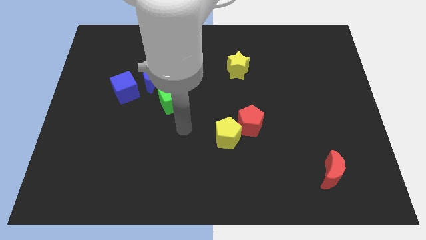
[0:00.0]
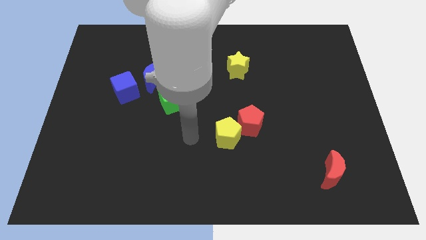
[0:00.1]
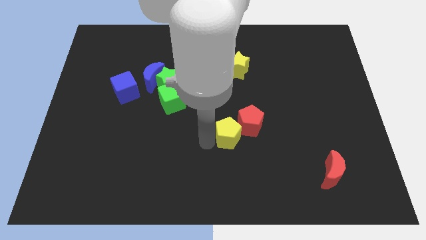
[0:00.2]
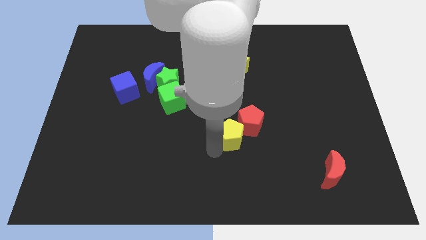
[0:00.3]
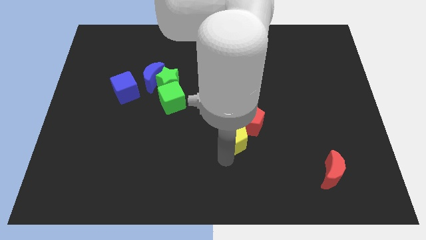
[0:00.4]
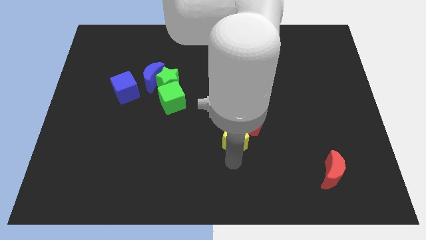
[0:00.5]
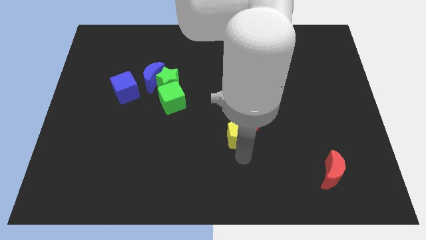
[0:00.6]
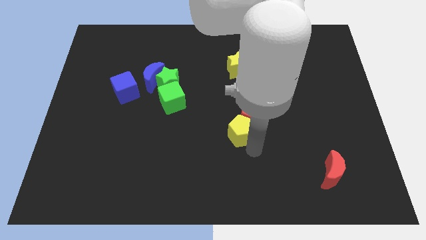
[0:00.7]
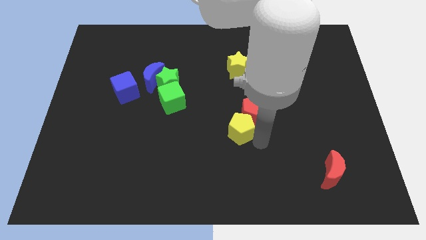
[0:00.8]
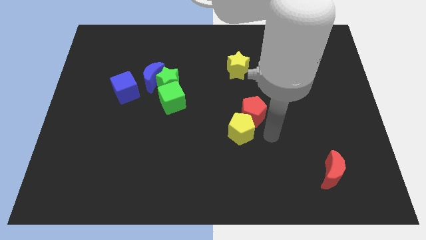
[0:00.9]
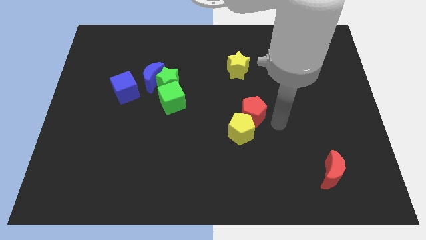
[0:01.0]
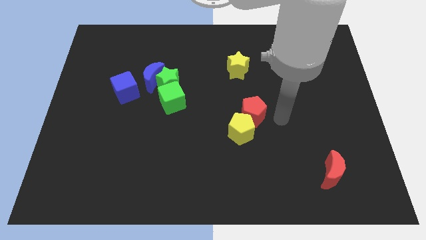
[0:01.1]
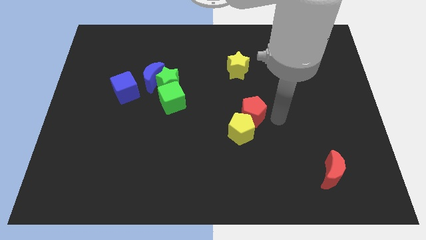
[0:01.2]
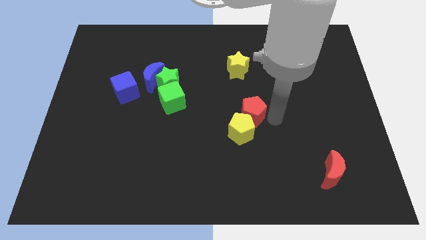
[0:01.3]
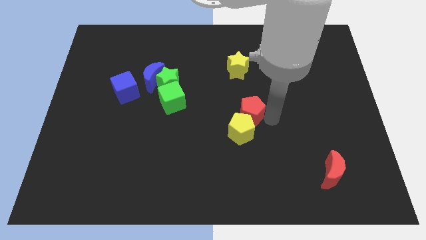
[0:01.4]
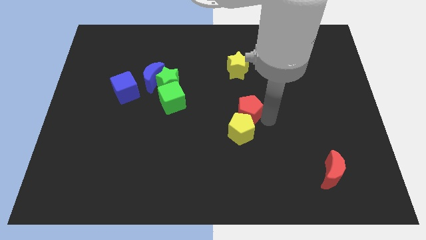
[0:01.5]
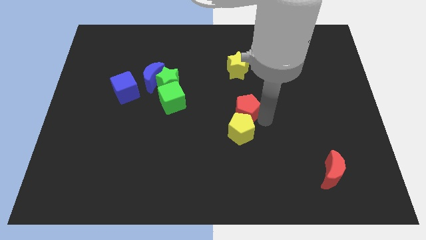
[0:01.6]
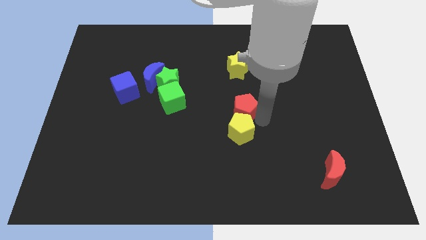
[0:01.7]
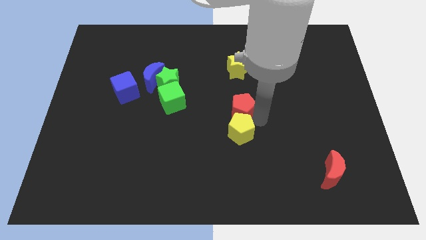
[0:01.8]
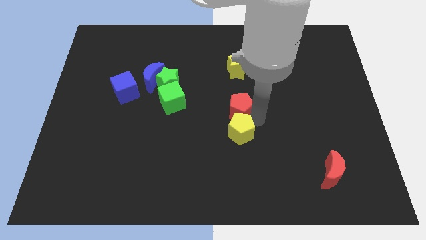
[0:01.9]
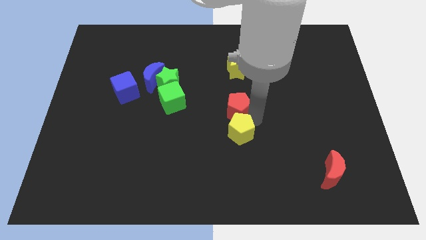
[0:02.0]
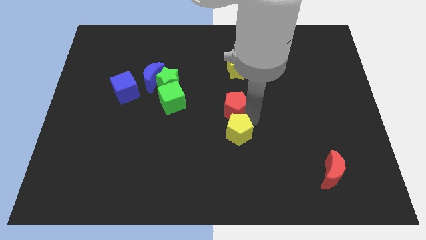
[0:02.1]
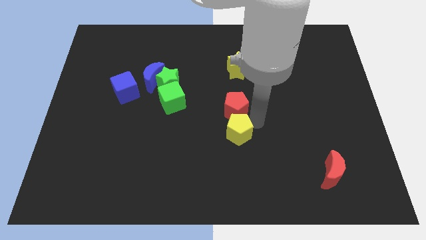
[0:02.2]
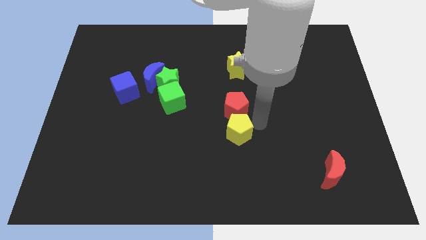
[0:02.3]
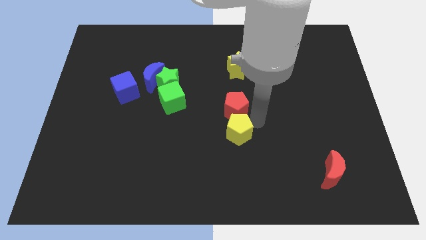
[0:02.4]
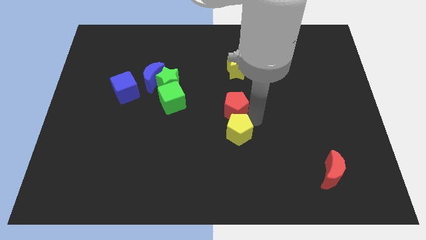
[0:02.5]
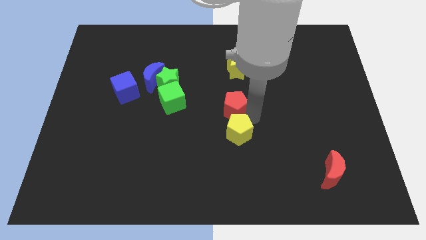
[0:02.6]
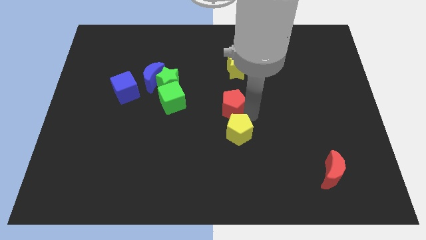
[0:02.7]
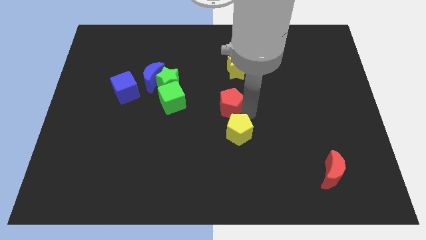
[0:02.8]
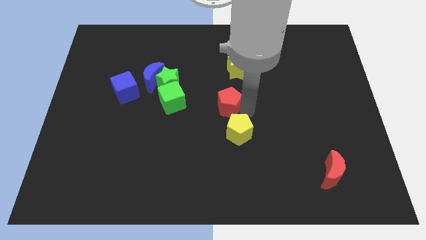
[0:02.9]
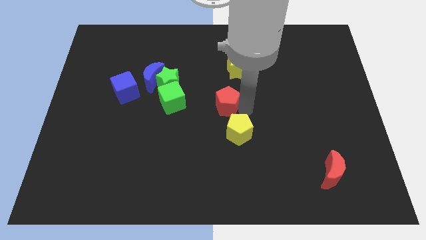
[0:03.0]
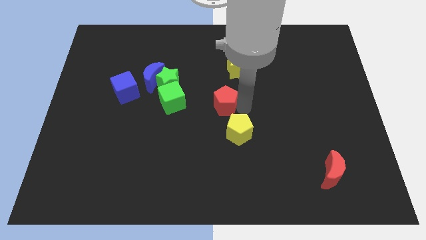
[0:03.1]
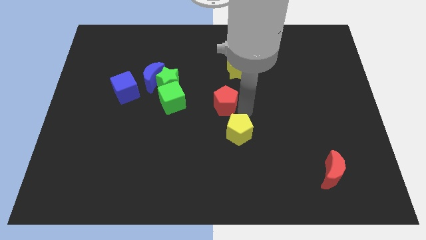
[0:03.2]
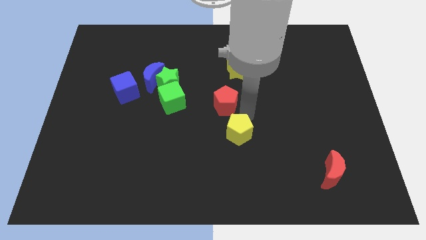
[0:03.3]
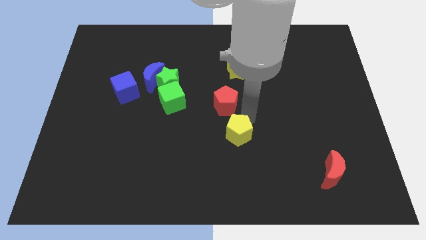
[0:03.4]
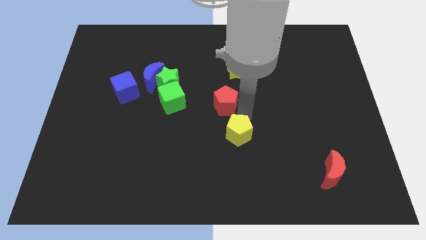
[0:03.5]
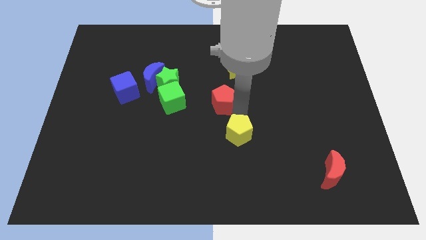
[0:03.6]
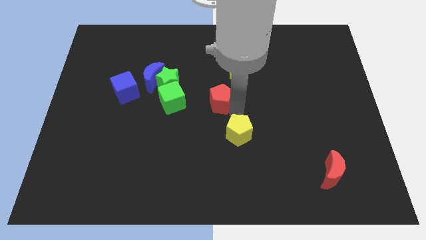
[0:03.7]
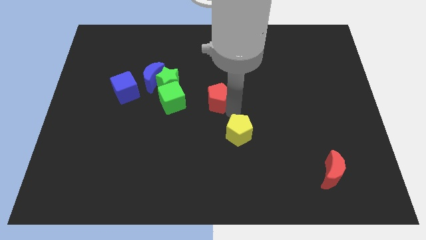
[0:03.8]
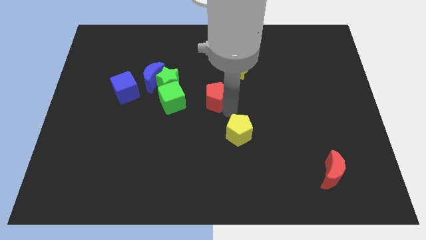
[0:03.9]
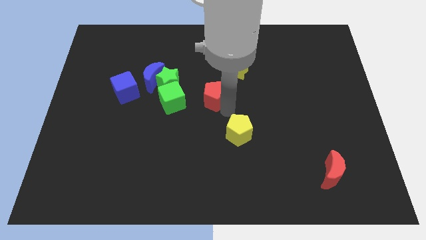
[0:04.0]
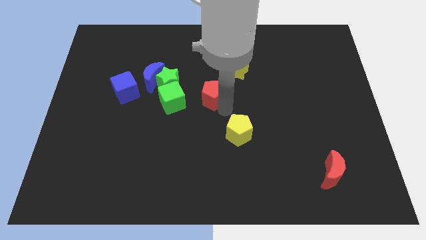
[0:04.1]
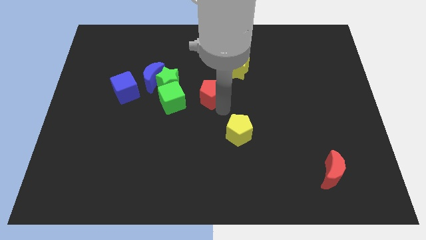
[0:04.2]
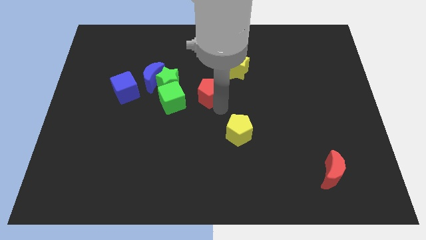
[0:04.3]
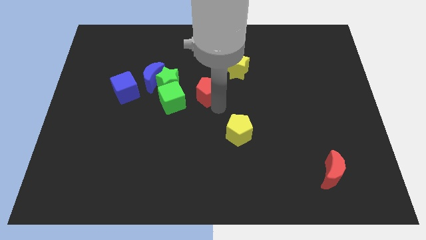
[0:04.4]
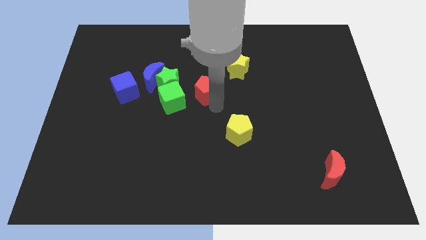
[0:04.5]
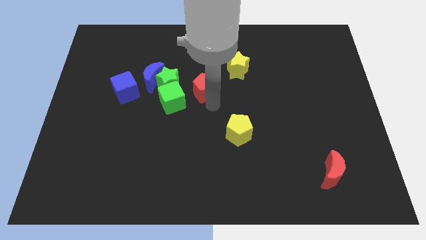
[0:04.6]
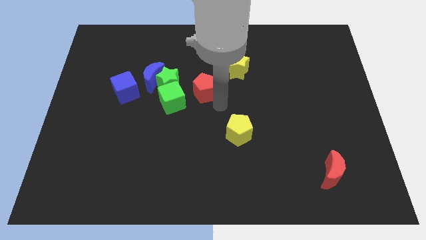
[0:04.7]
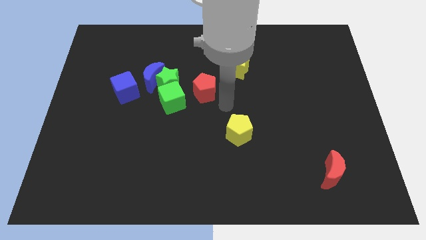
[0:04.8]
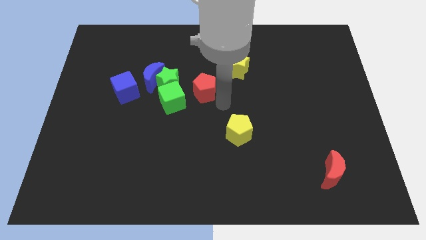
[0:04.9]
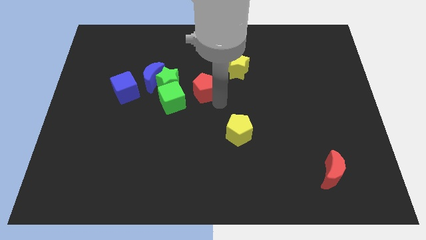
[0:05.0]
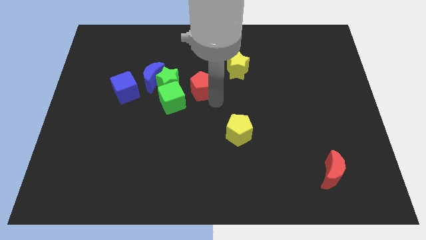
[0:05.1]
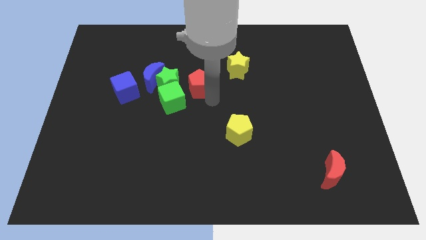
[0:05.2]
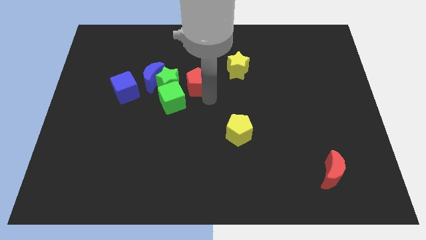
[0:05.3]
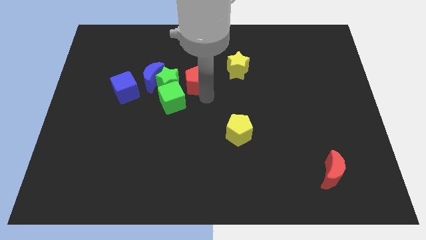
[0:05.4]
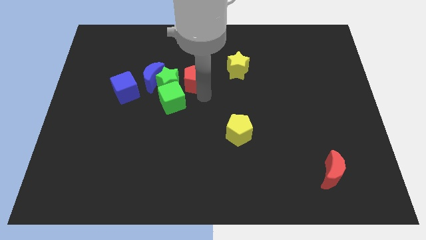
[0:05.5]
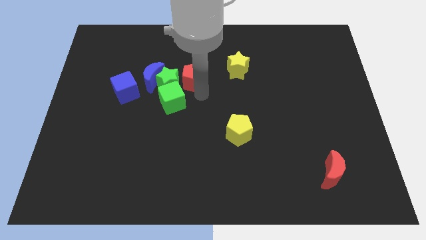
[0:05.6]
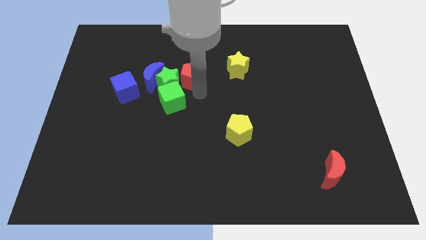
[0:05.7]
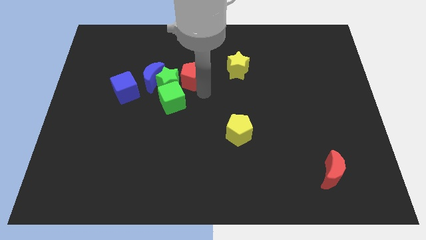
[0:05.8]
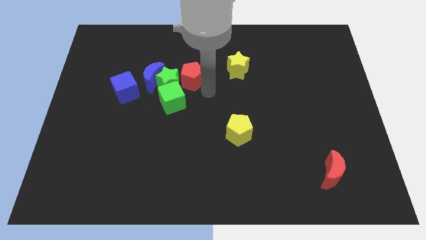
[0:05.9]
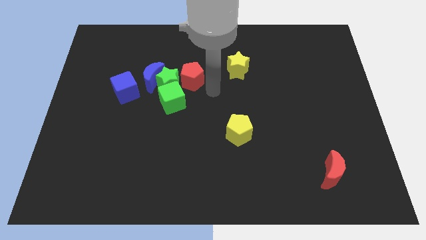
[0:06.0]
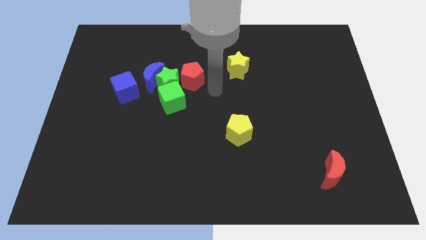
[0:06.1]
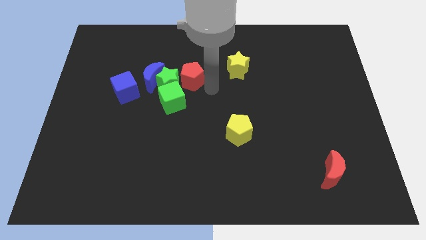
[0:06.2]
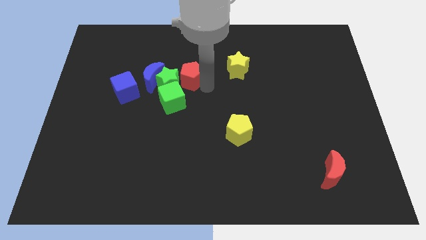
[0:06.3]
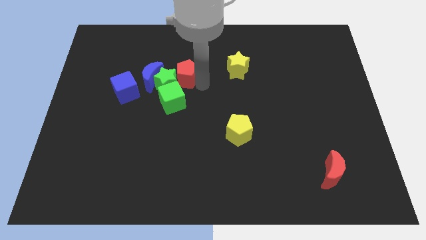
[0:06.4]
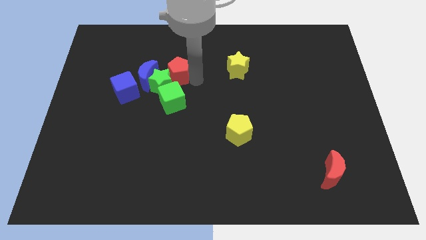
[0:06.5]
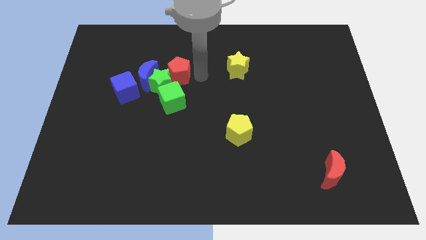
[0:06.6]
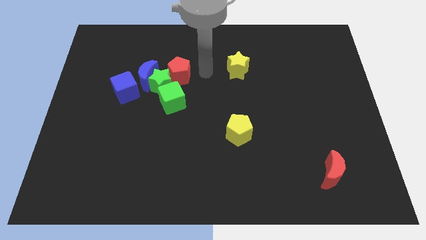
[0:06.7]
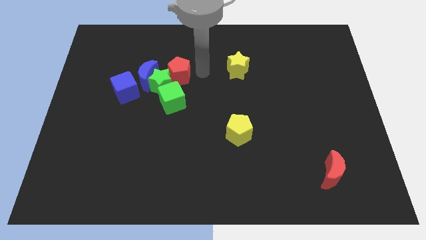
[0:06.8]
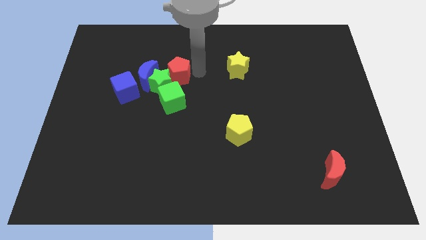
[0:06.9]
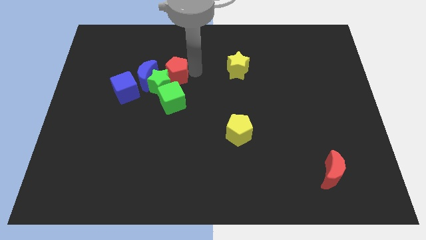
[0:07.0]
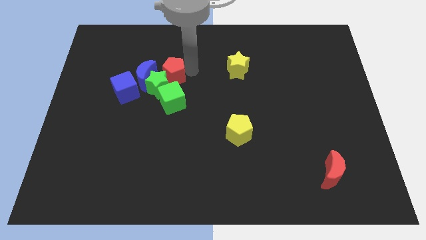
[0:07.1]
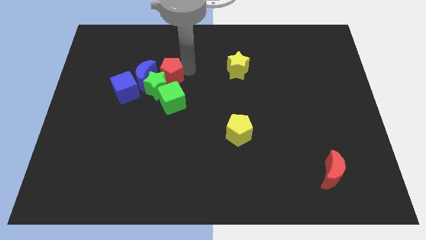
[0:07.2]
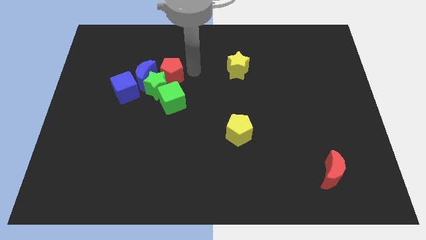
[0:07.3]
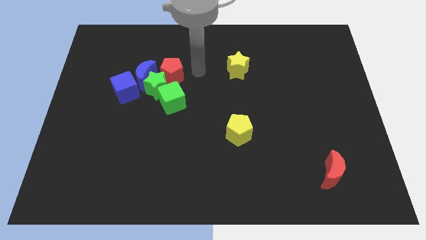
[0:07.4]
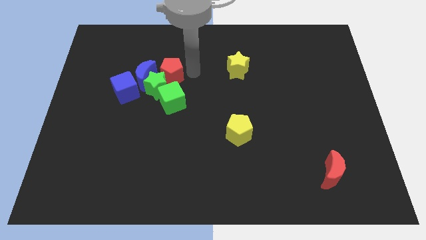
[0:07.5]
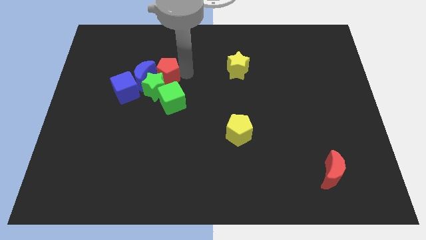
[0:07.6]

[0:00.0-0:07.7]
move the red pentagon to the blue moon
